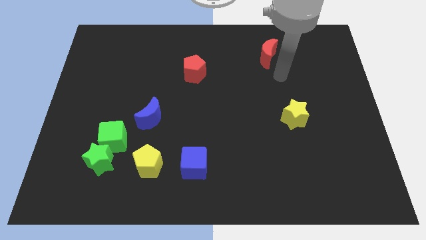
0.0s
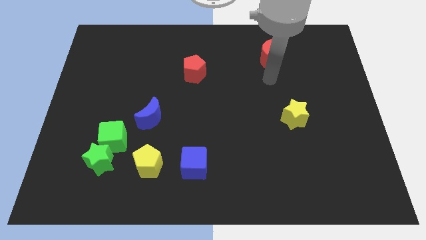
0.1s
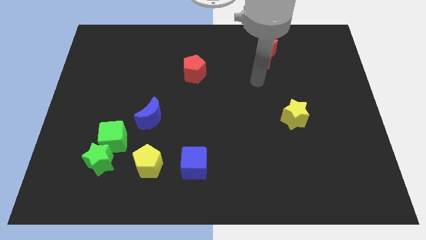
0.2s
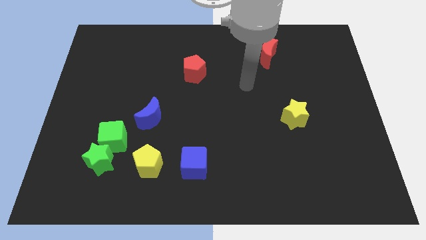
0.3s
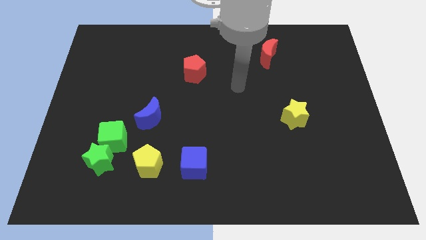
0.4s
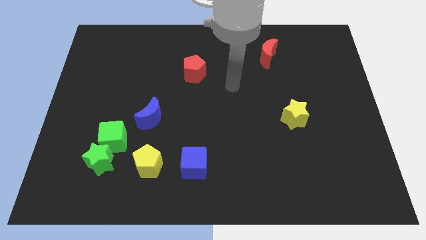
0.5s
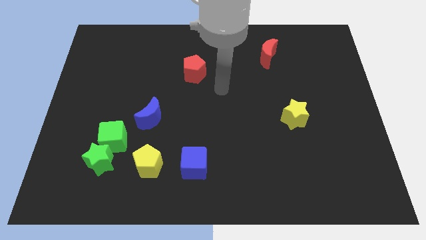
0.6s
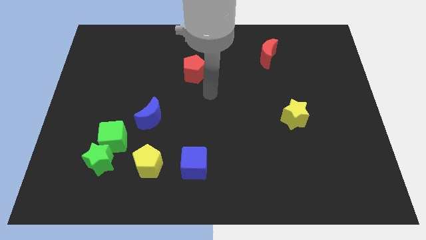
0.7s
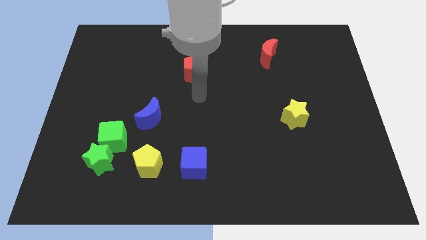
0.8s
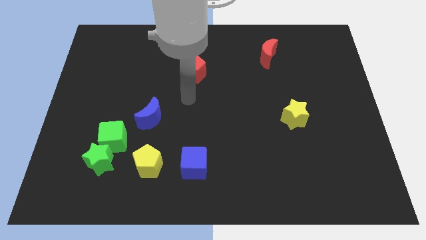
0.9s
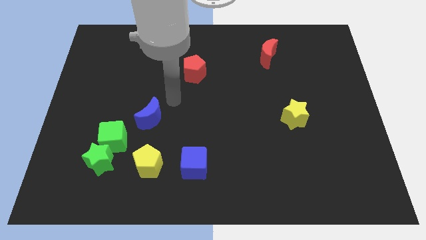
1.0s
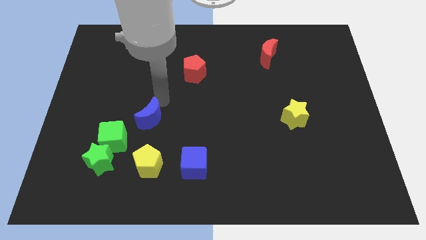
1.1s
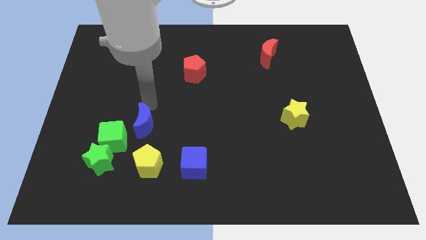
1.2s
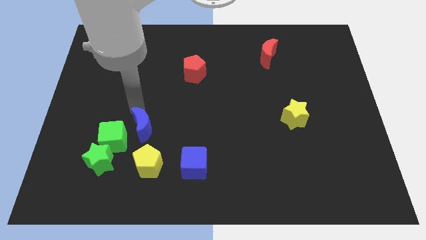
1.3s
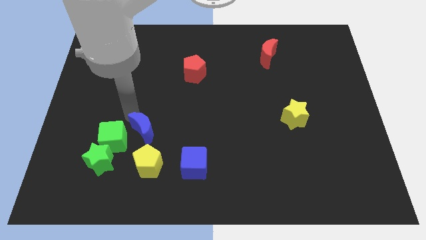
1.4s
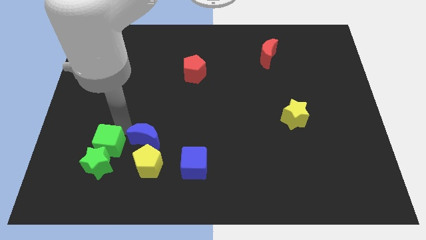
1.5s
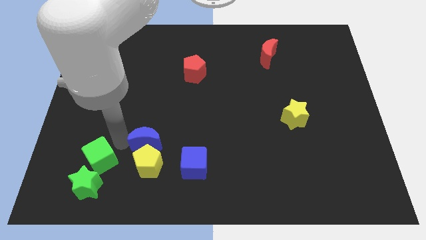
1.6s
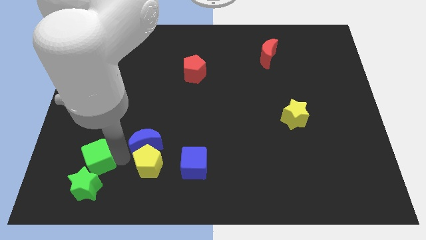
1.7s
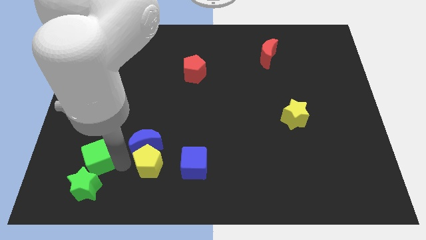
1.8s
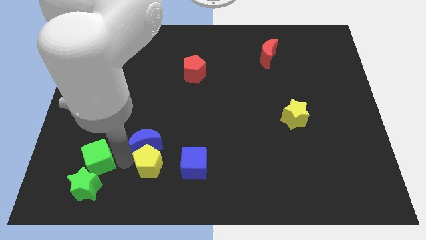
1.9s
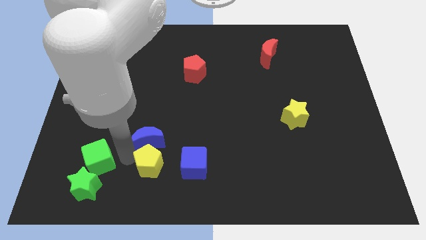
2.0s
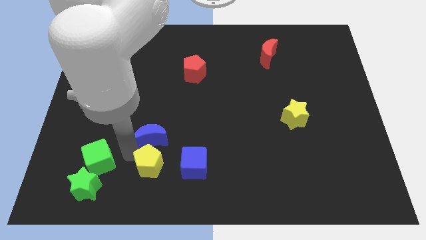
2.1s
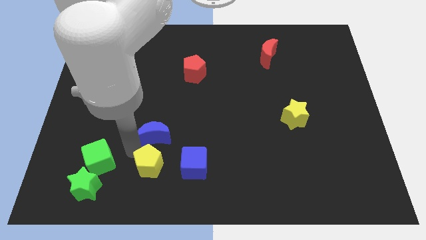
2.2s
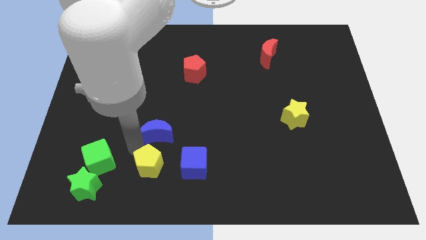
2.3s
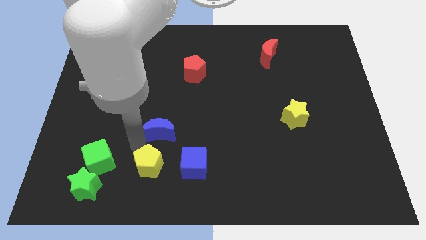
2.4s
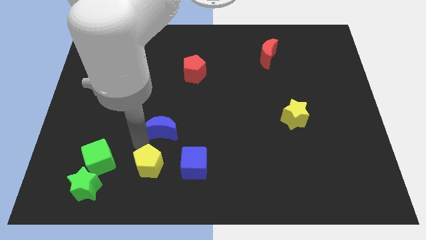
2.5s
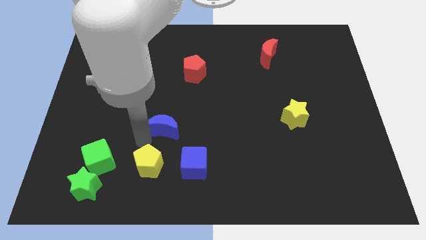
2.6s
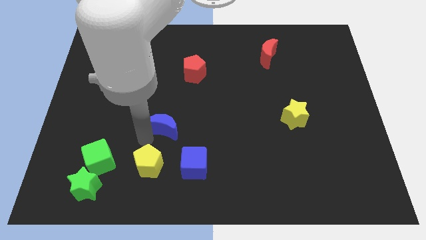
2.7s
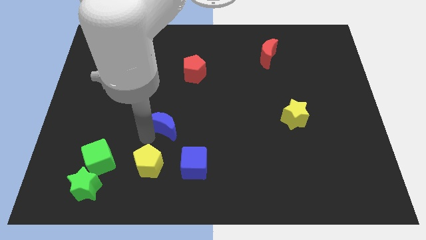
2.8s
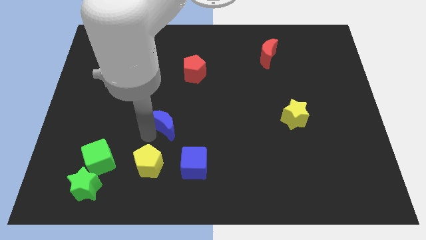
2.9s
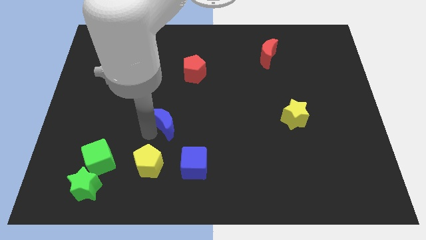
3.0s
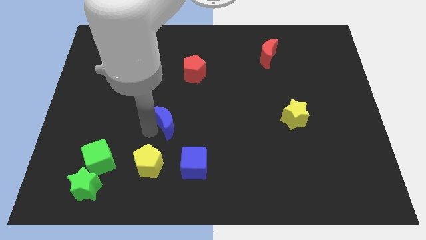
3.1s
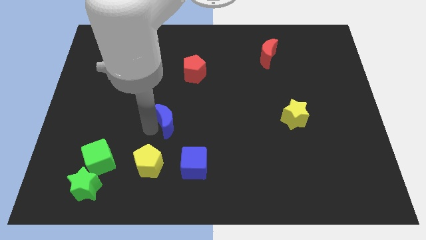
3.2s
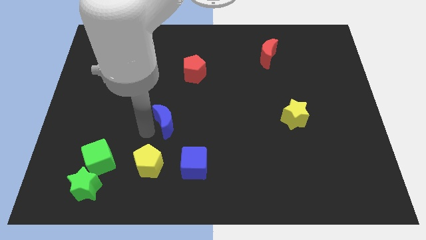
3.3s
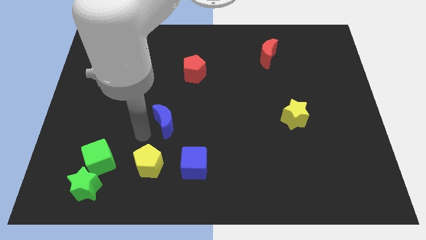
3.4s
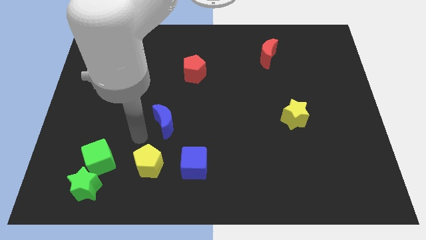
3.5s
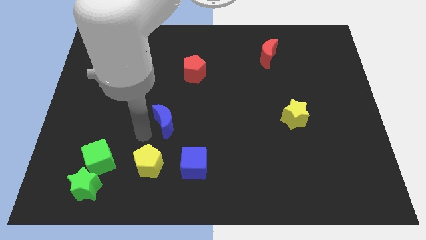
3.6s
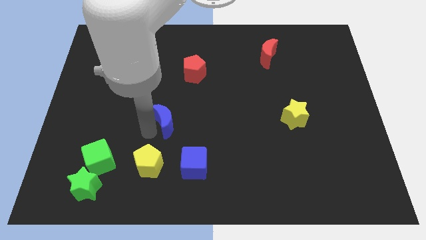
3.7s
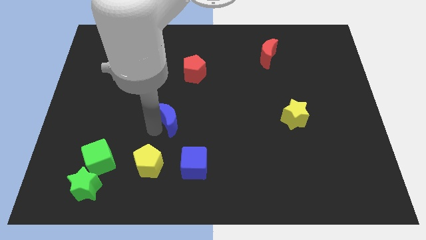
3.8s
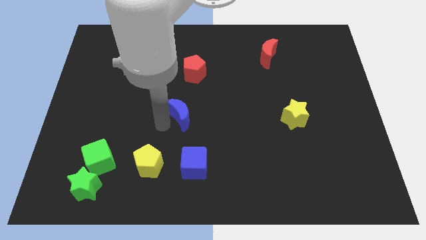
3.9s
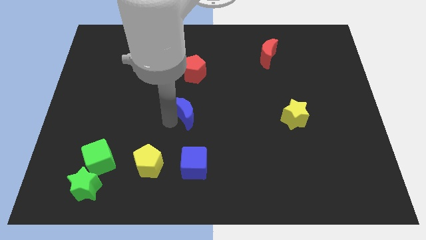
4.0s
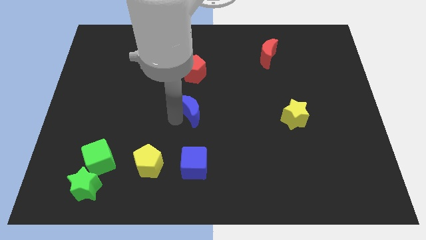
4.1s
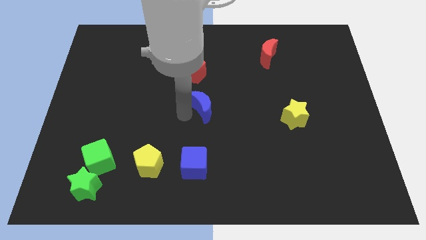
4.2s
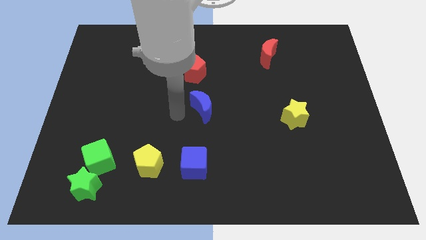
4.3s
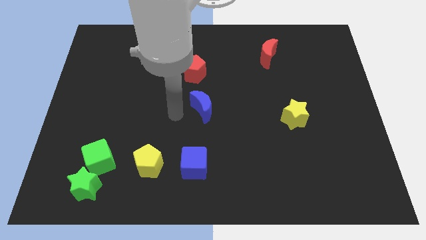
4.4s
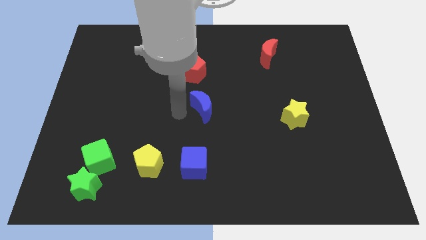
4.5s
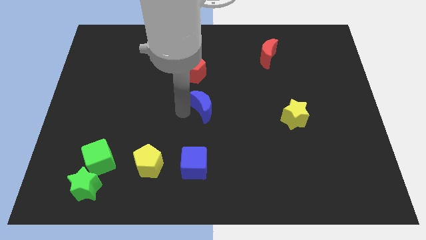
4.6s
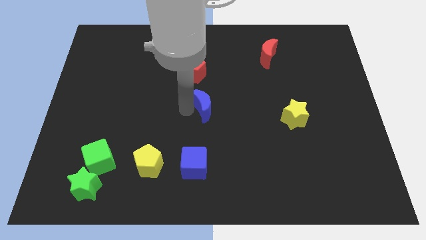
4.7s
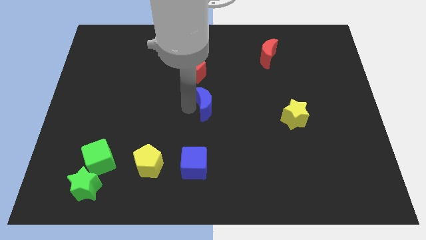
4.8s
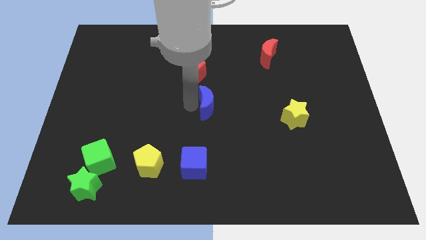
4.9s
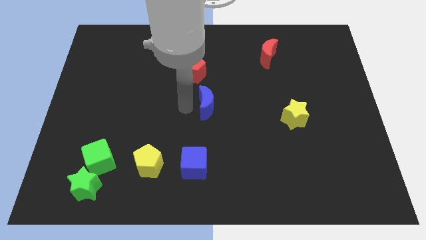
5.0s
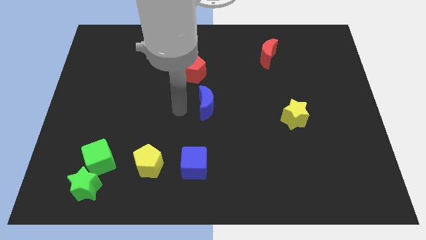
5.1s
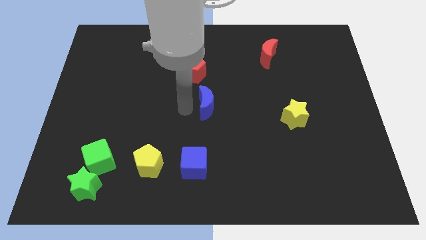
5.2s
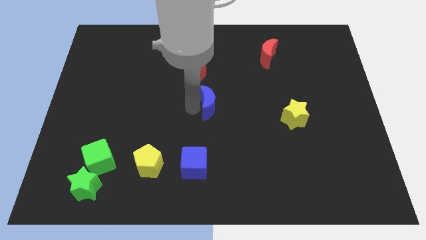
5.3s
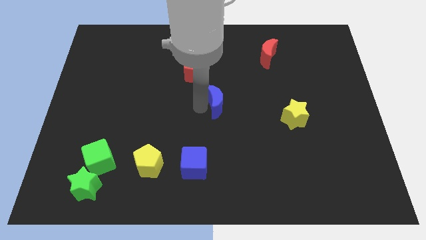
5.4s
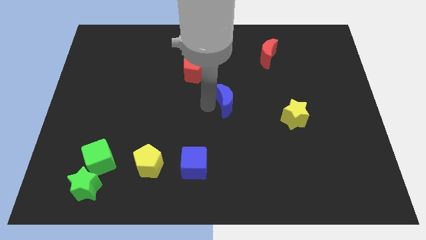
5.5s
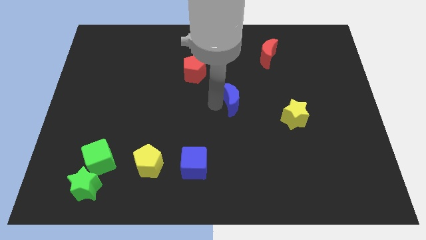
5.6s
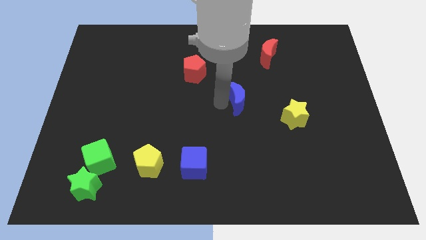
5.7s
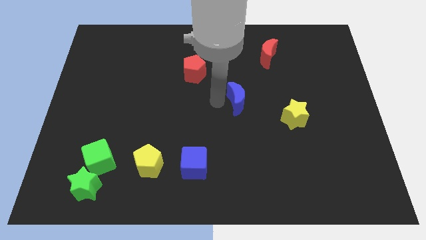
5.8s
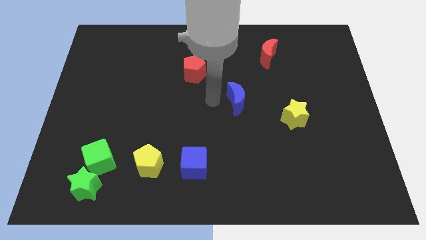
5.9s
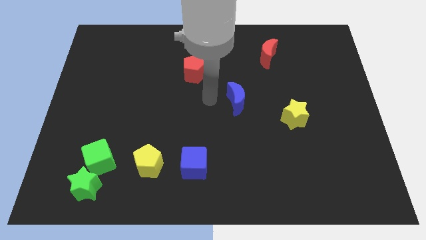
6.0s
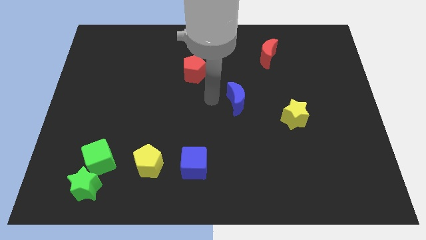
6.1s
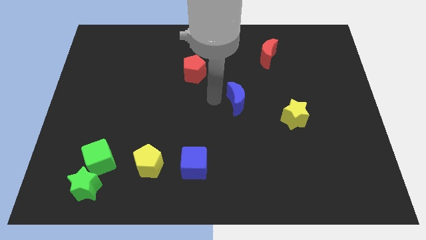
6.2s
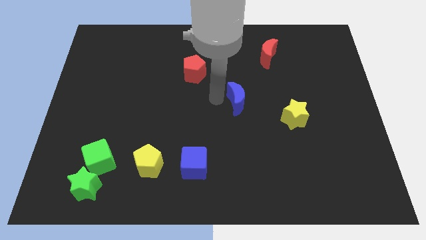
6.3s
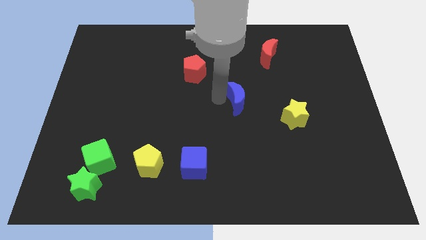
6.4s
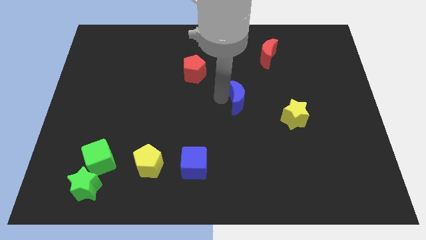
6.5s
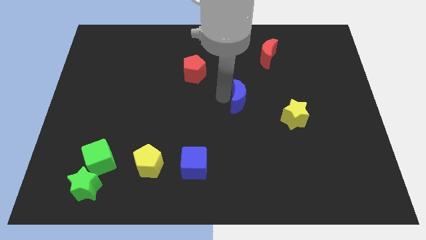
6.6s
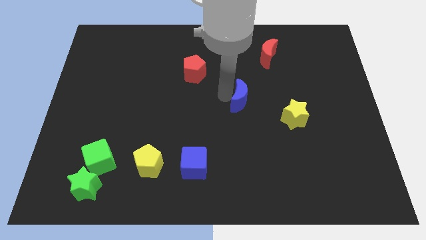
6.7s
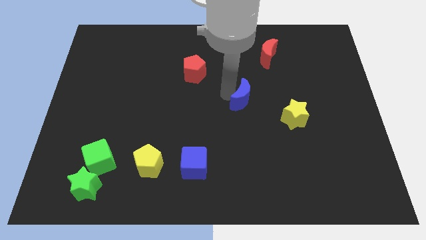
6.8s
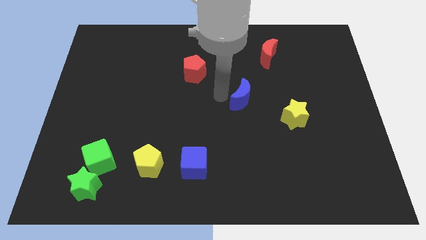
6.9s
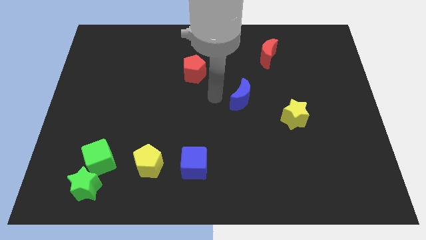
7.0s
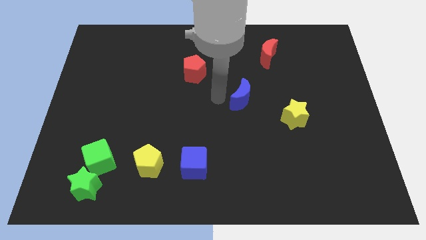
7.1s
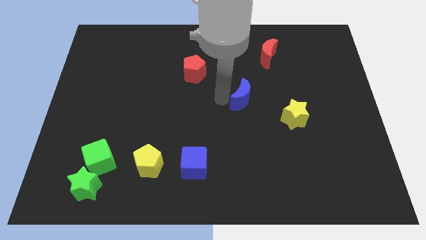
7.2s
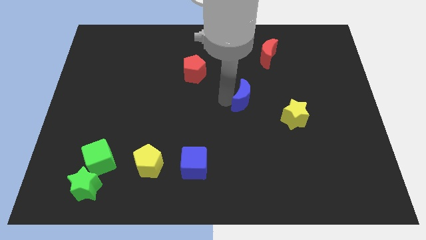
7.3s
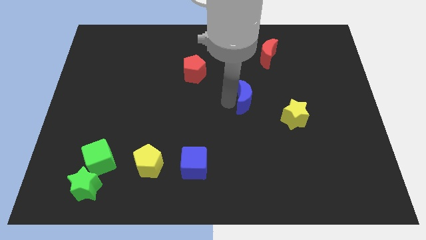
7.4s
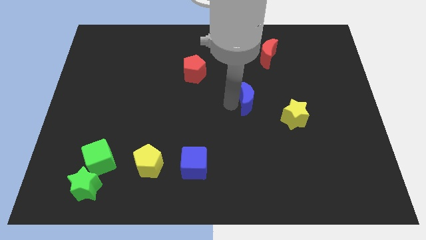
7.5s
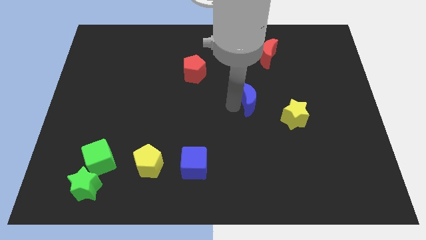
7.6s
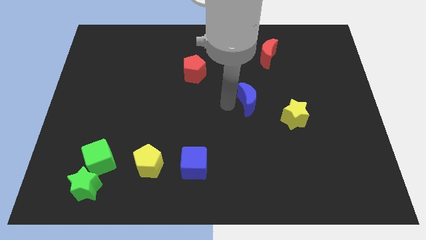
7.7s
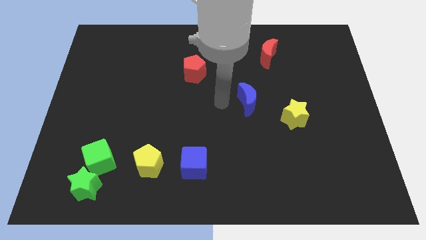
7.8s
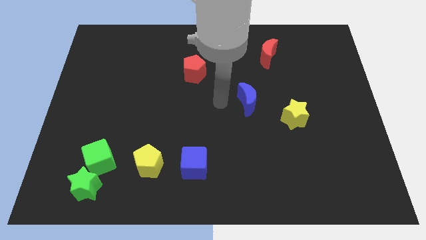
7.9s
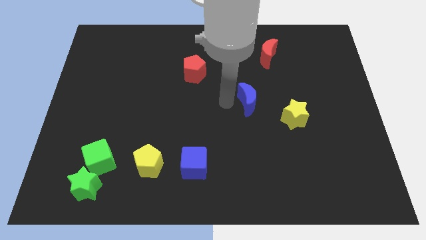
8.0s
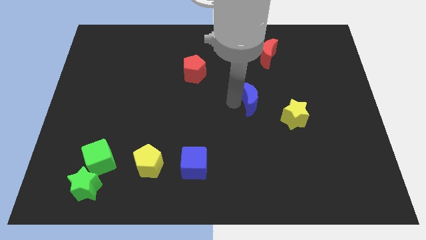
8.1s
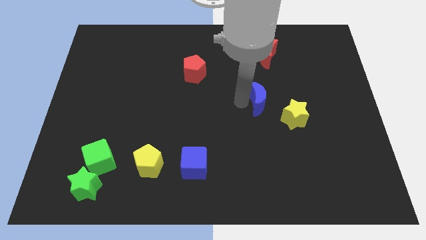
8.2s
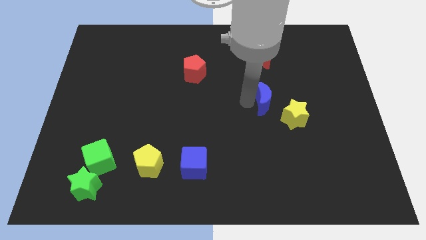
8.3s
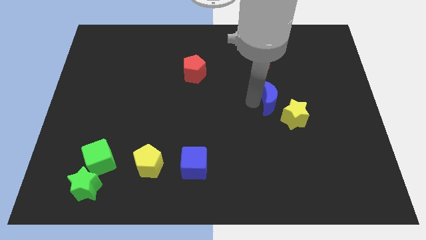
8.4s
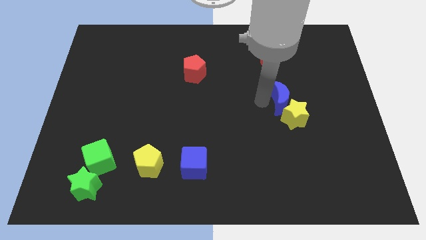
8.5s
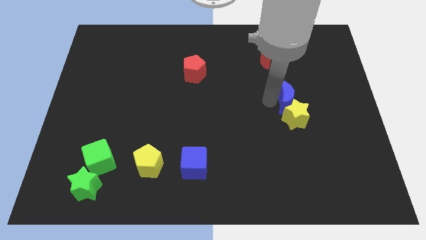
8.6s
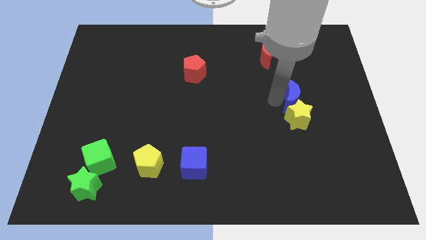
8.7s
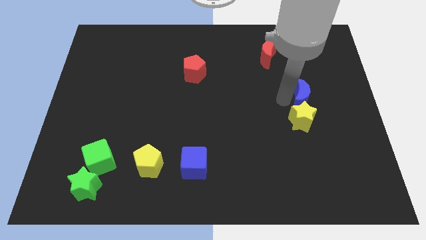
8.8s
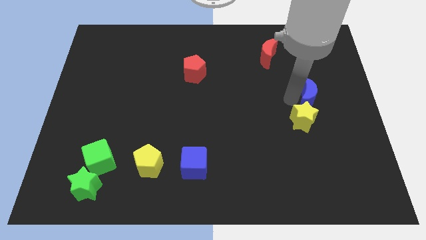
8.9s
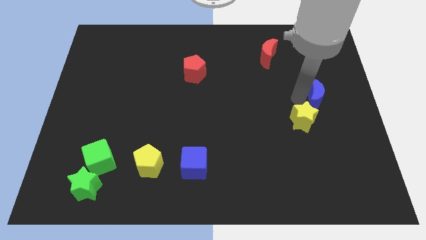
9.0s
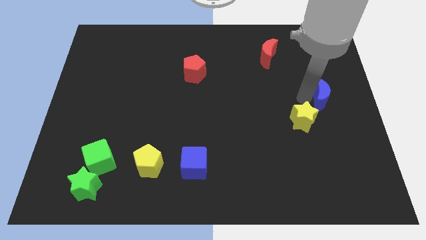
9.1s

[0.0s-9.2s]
move the blue moon to the right side of the board
